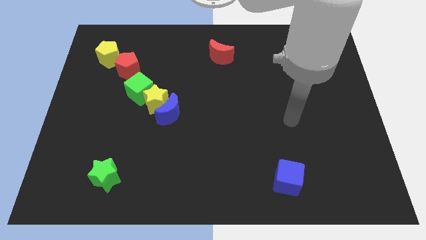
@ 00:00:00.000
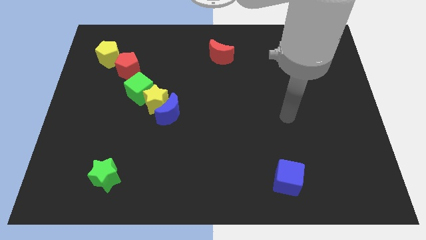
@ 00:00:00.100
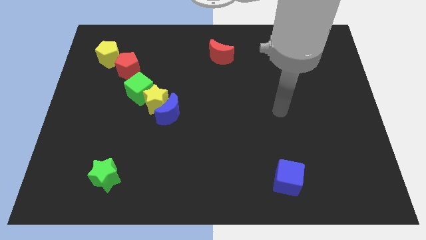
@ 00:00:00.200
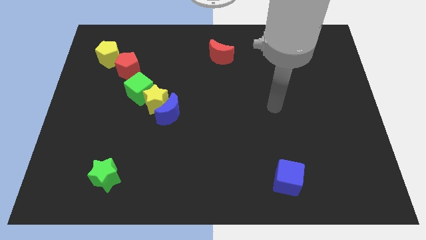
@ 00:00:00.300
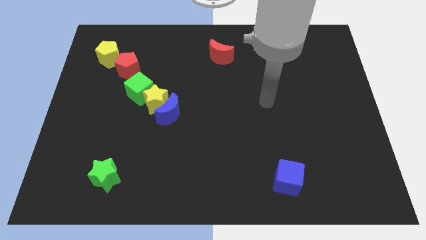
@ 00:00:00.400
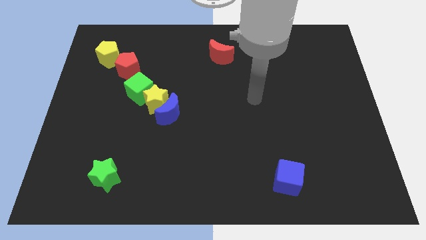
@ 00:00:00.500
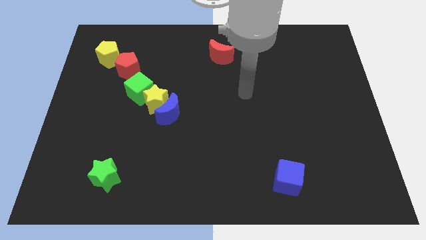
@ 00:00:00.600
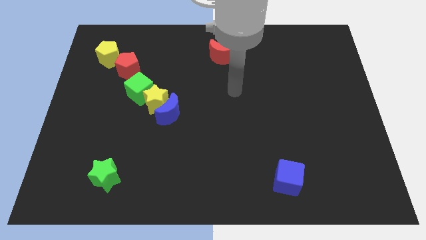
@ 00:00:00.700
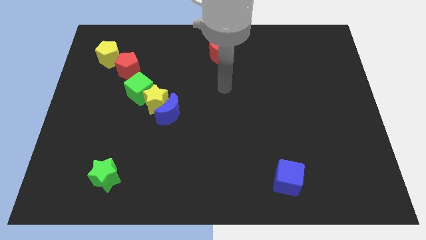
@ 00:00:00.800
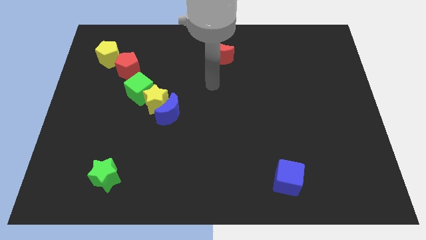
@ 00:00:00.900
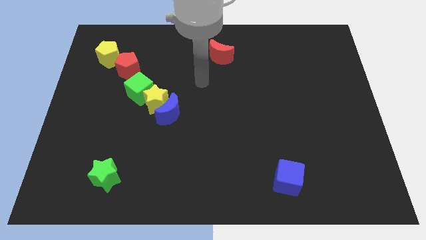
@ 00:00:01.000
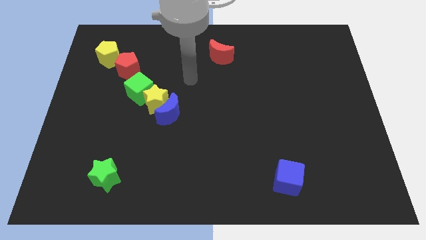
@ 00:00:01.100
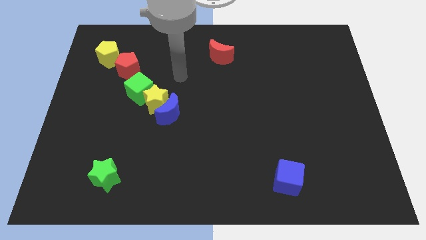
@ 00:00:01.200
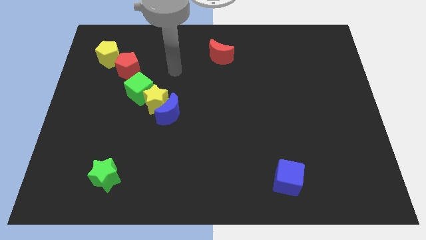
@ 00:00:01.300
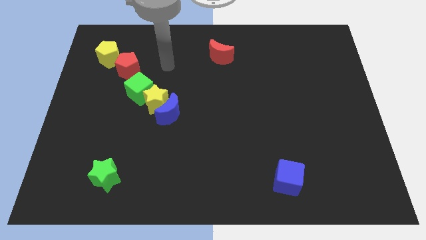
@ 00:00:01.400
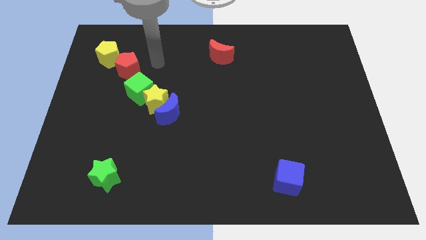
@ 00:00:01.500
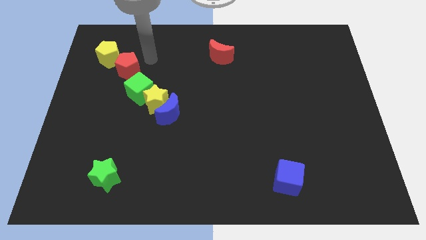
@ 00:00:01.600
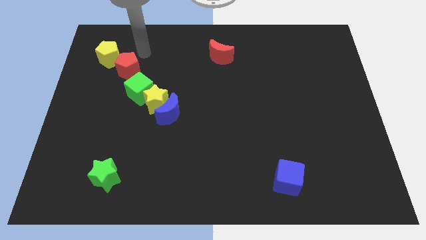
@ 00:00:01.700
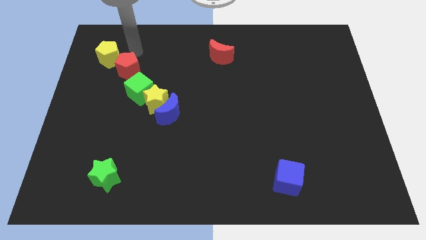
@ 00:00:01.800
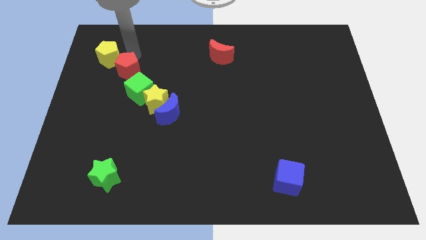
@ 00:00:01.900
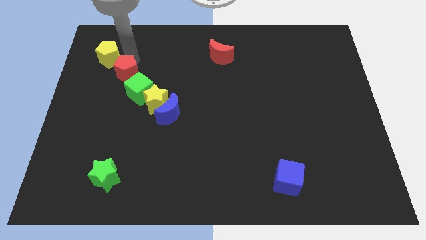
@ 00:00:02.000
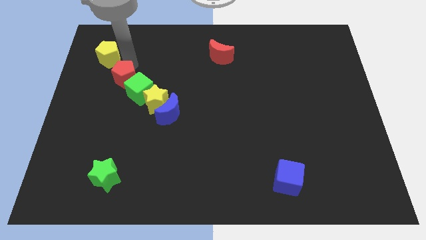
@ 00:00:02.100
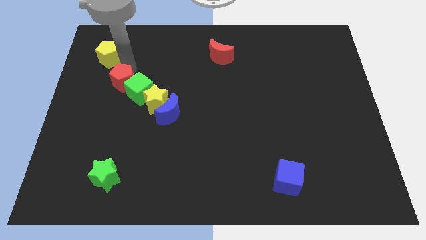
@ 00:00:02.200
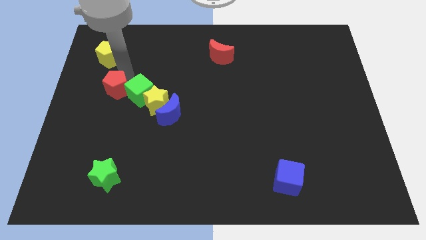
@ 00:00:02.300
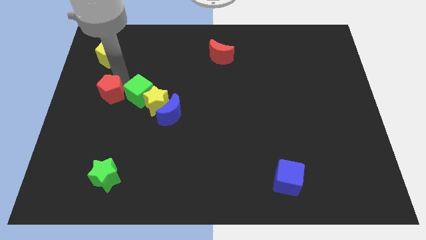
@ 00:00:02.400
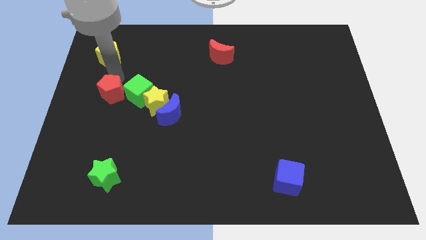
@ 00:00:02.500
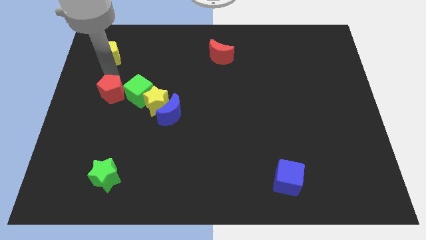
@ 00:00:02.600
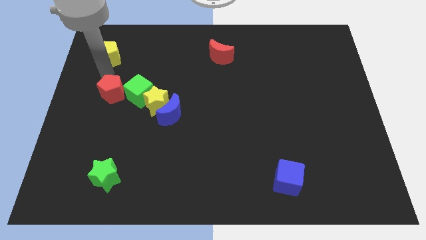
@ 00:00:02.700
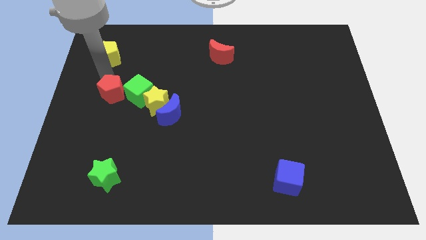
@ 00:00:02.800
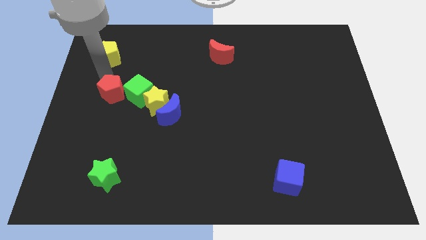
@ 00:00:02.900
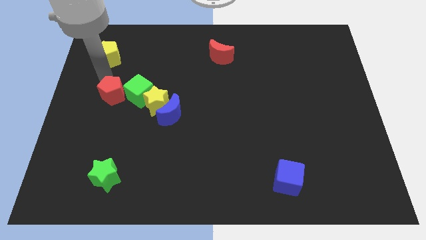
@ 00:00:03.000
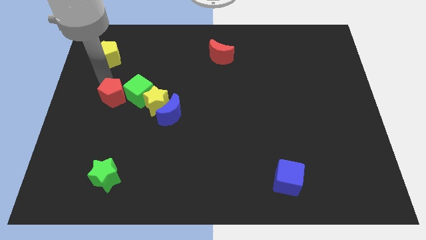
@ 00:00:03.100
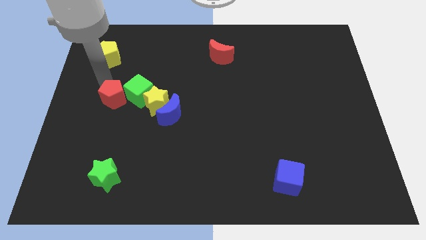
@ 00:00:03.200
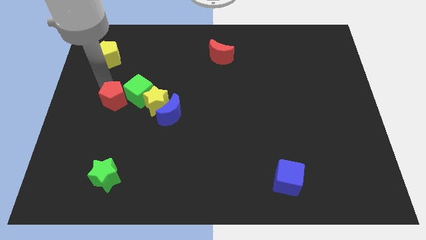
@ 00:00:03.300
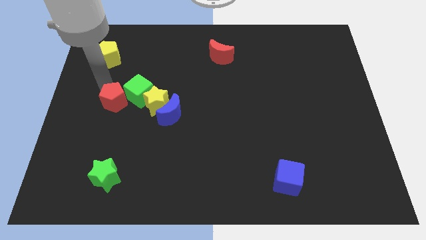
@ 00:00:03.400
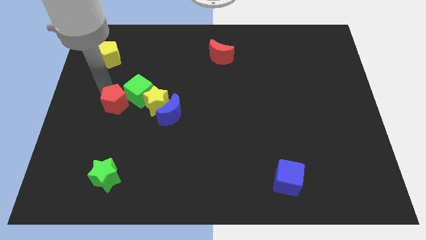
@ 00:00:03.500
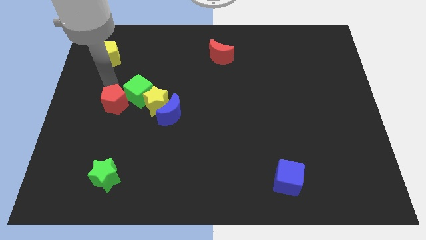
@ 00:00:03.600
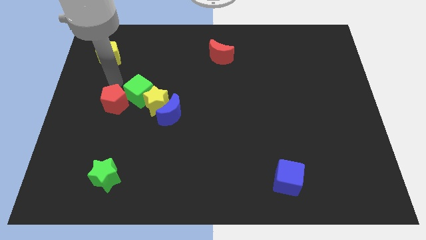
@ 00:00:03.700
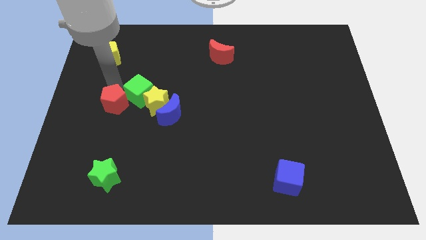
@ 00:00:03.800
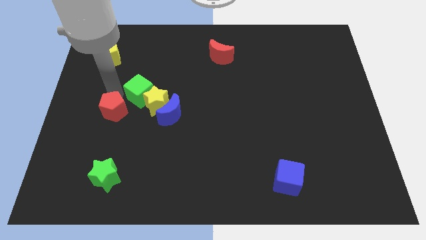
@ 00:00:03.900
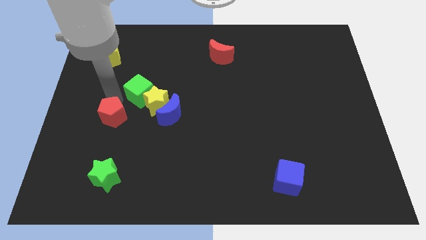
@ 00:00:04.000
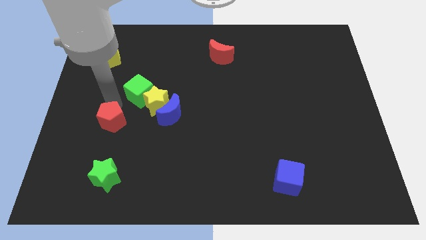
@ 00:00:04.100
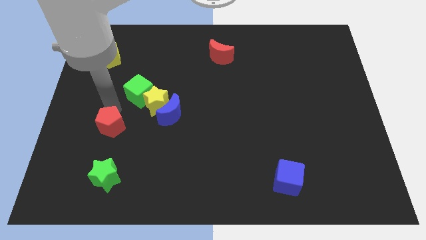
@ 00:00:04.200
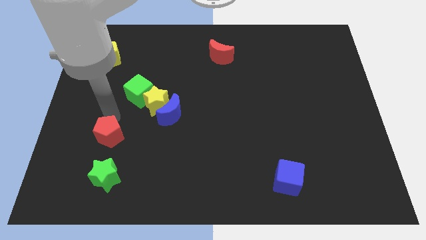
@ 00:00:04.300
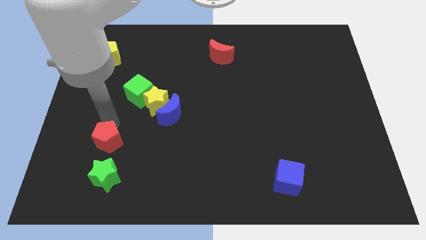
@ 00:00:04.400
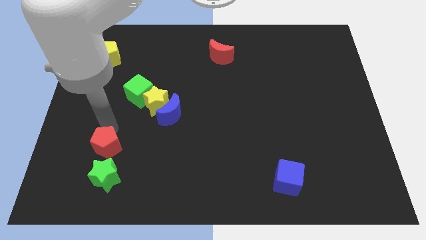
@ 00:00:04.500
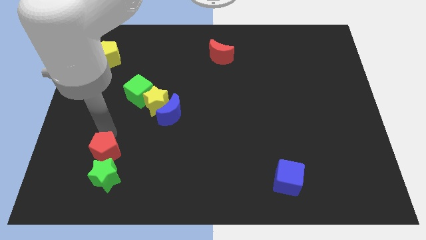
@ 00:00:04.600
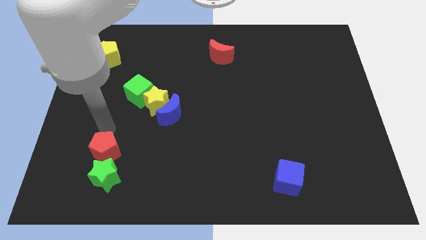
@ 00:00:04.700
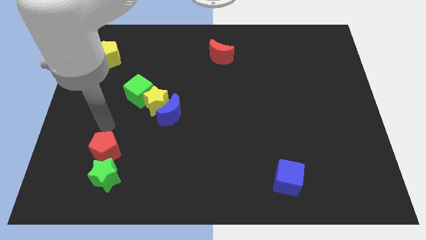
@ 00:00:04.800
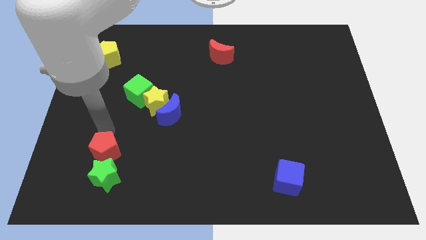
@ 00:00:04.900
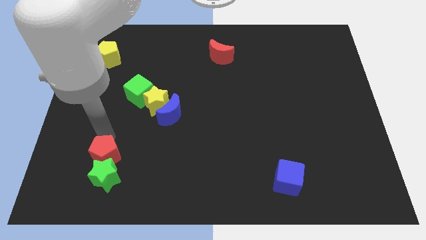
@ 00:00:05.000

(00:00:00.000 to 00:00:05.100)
slide the red pentagon close to the green star

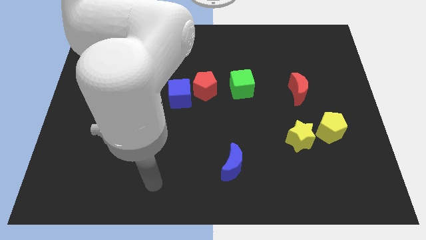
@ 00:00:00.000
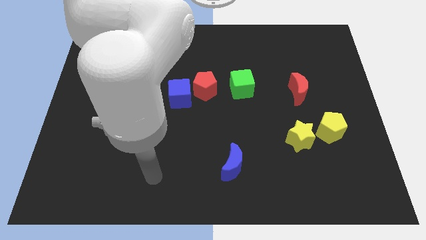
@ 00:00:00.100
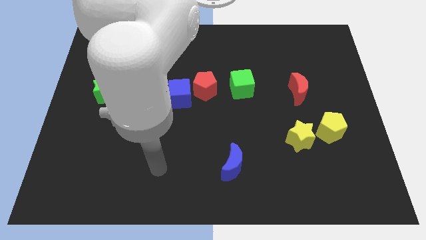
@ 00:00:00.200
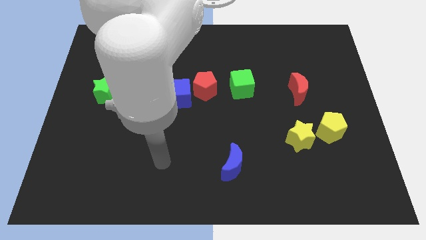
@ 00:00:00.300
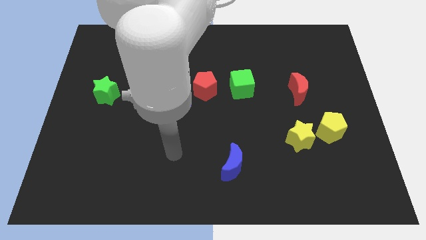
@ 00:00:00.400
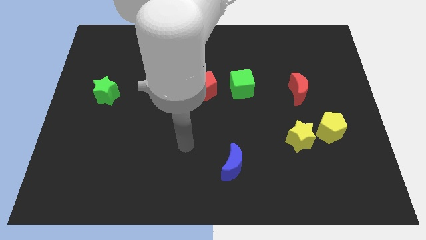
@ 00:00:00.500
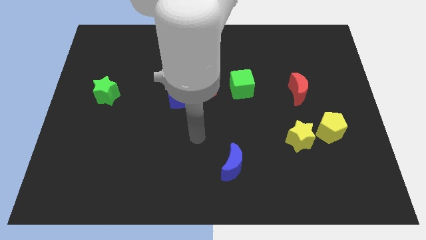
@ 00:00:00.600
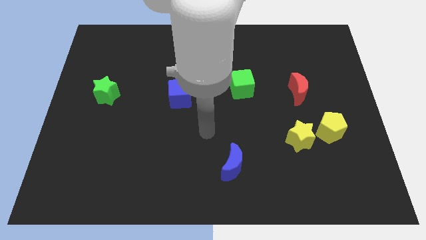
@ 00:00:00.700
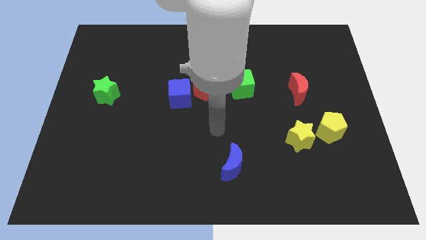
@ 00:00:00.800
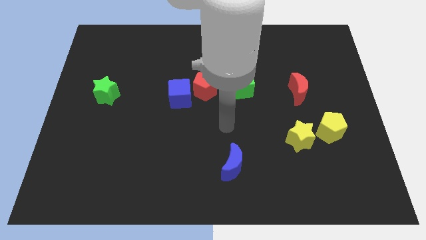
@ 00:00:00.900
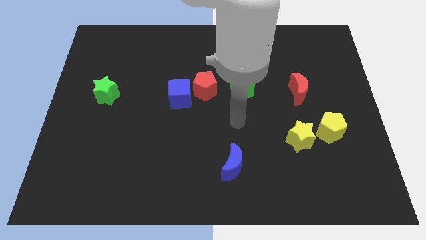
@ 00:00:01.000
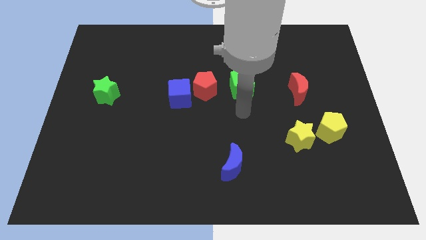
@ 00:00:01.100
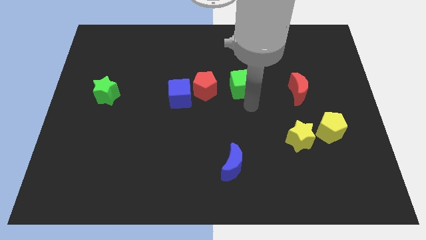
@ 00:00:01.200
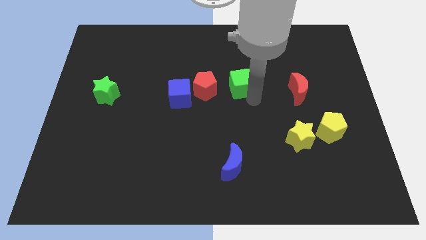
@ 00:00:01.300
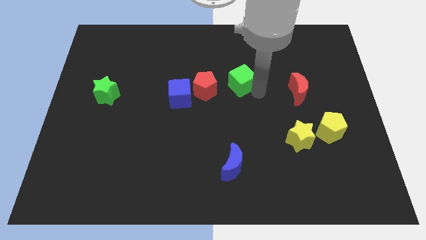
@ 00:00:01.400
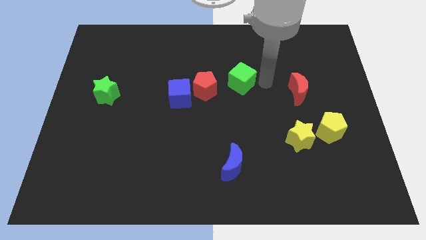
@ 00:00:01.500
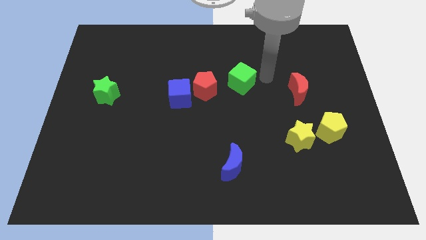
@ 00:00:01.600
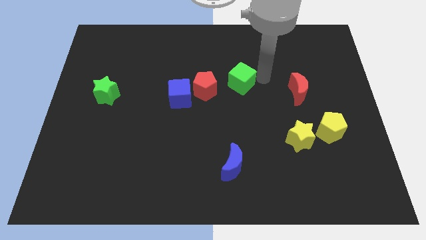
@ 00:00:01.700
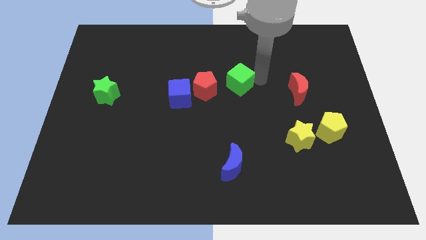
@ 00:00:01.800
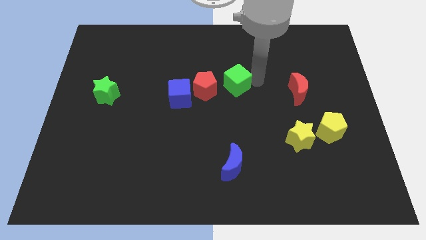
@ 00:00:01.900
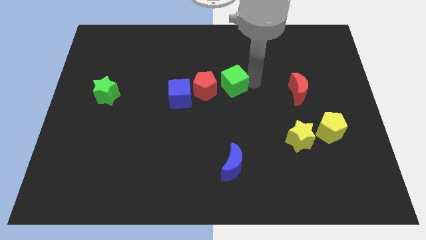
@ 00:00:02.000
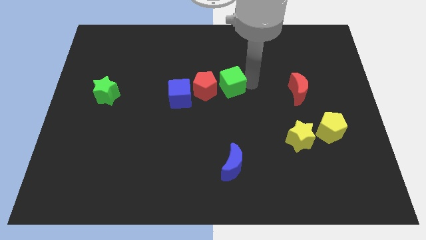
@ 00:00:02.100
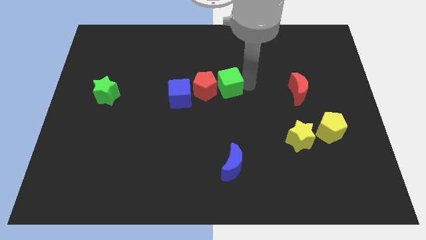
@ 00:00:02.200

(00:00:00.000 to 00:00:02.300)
push the green cube close to the red pentagon
